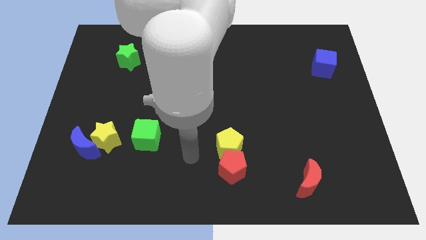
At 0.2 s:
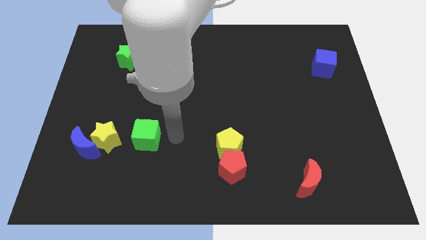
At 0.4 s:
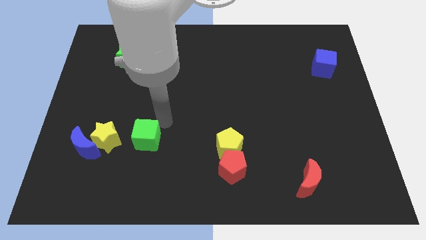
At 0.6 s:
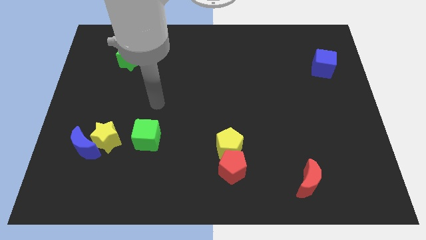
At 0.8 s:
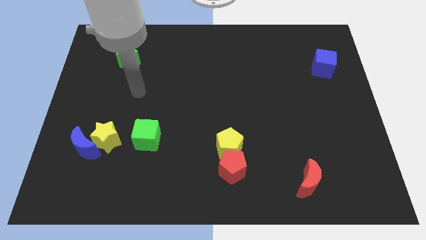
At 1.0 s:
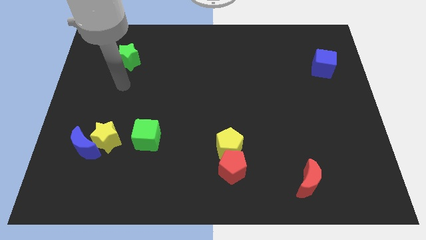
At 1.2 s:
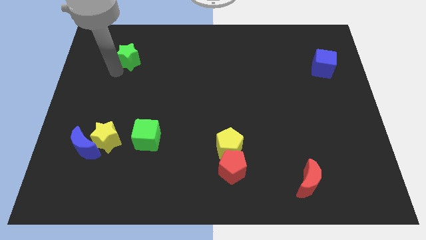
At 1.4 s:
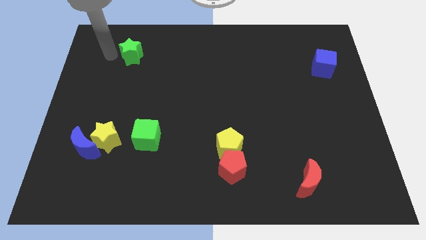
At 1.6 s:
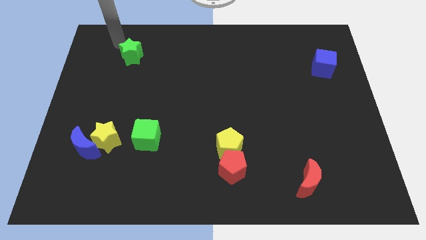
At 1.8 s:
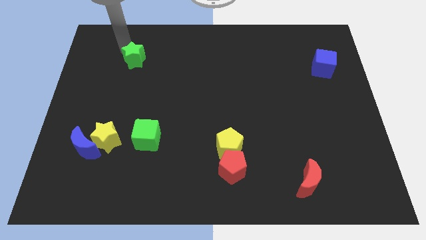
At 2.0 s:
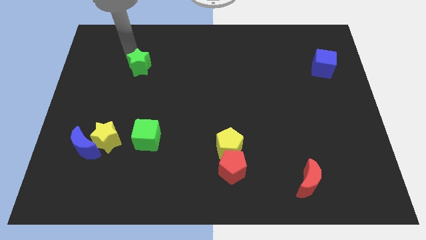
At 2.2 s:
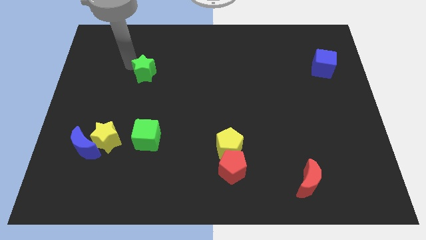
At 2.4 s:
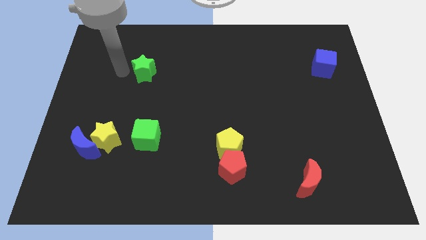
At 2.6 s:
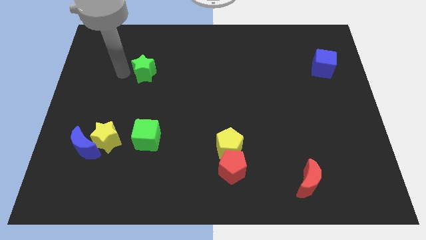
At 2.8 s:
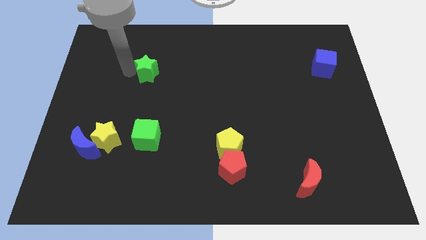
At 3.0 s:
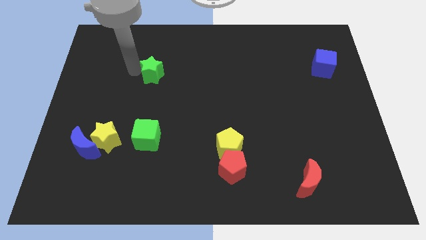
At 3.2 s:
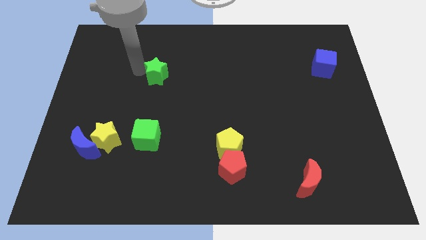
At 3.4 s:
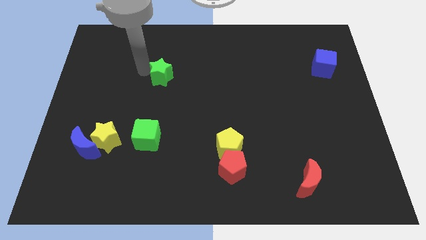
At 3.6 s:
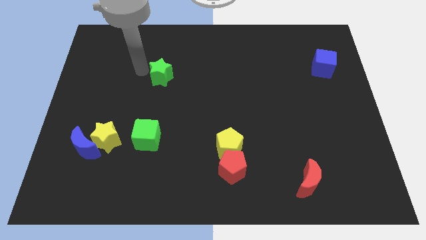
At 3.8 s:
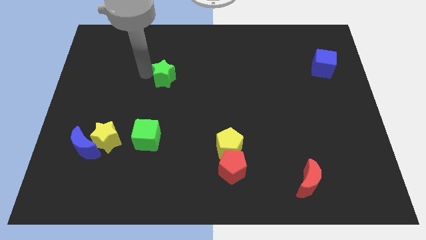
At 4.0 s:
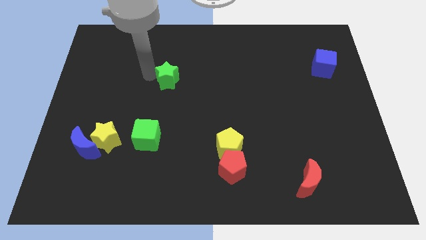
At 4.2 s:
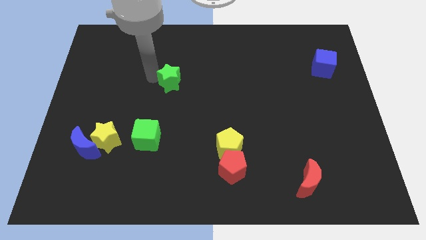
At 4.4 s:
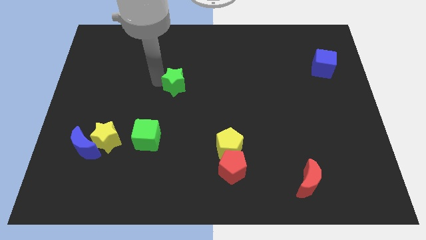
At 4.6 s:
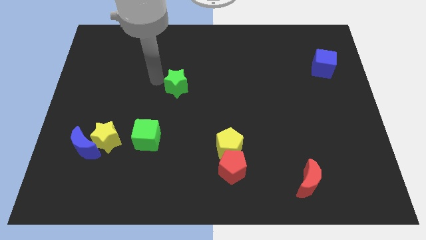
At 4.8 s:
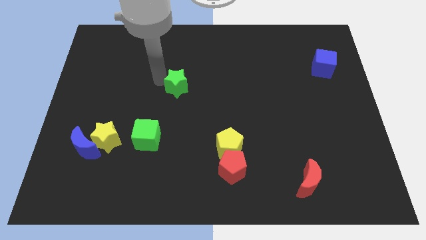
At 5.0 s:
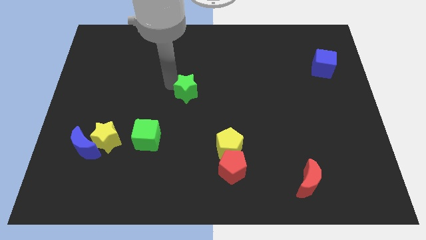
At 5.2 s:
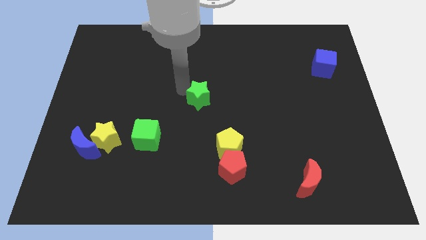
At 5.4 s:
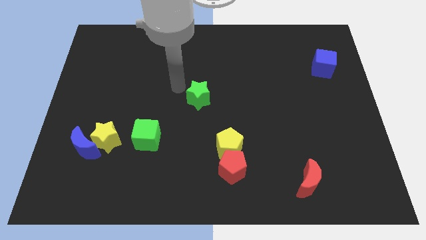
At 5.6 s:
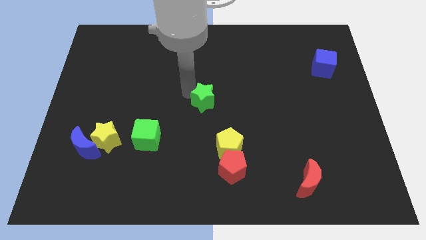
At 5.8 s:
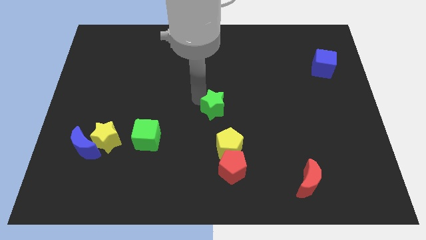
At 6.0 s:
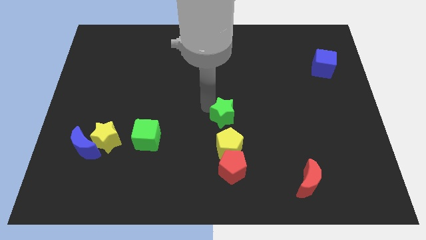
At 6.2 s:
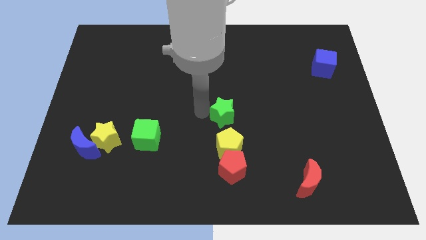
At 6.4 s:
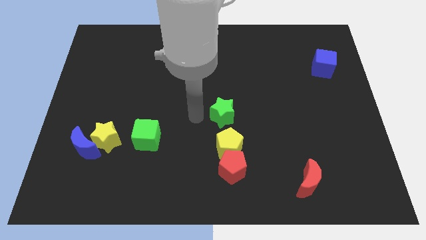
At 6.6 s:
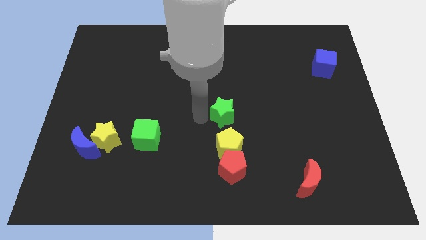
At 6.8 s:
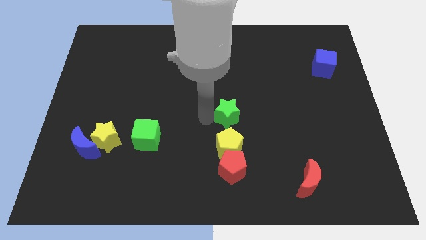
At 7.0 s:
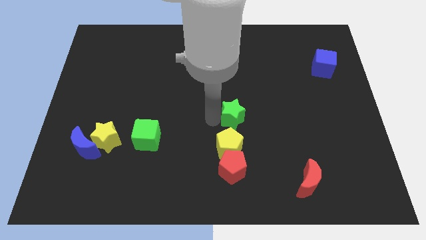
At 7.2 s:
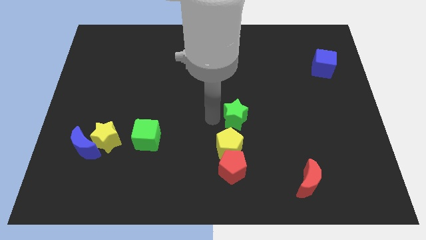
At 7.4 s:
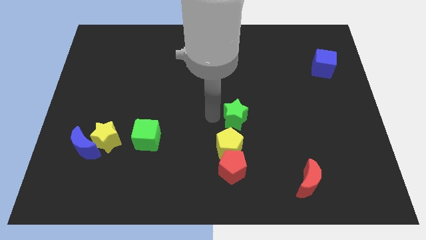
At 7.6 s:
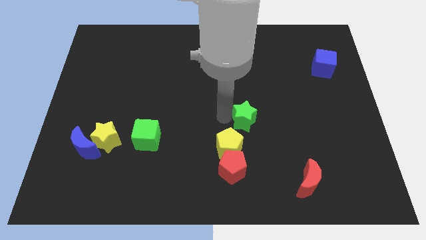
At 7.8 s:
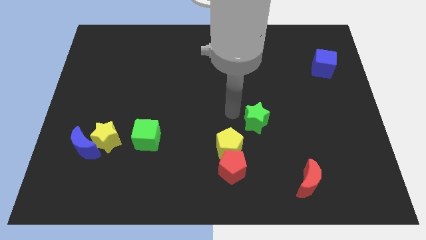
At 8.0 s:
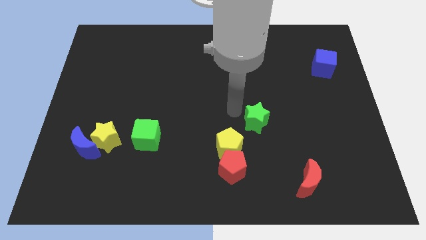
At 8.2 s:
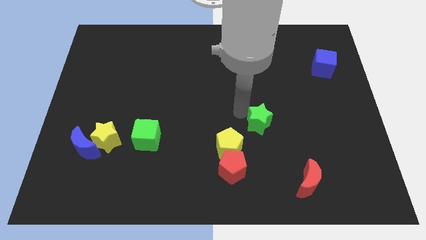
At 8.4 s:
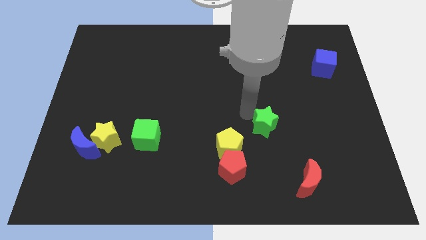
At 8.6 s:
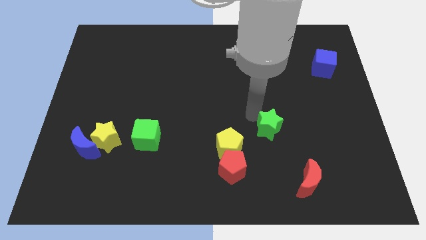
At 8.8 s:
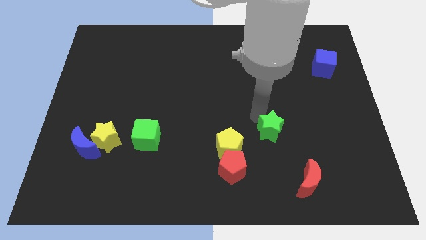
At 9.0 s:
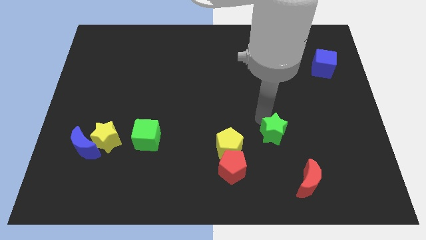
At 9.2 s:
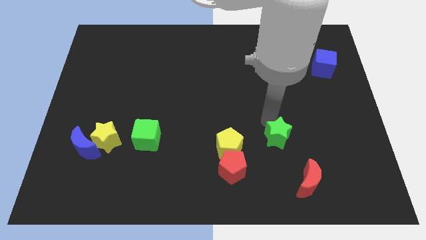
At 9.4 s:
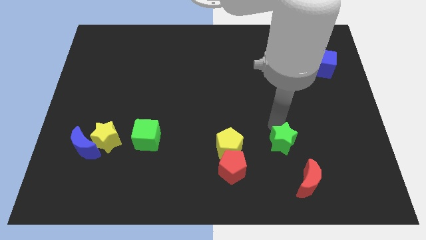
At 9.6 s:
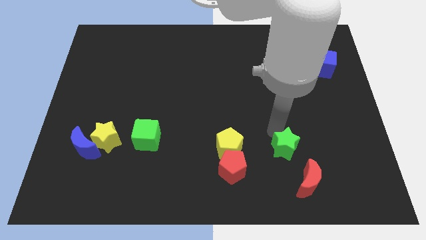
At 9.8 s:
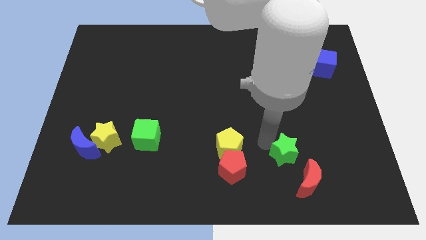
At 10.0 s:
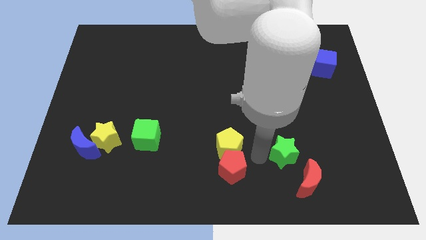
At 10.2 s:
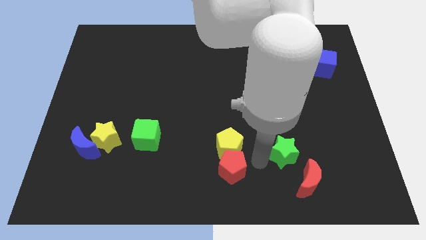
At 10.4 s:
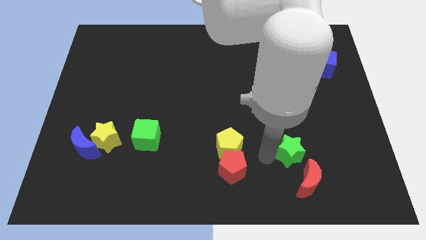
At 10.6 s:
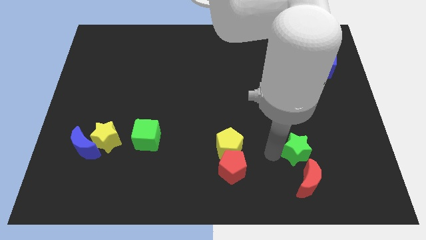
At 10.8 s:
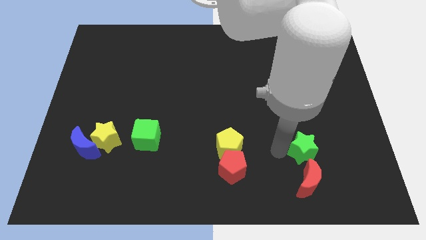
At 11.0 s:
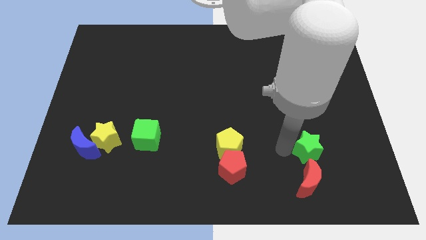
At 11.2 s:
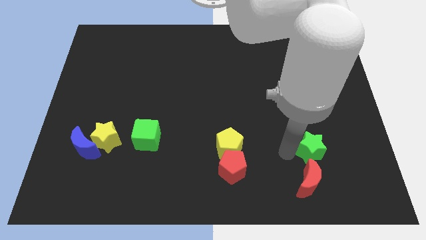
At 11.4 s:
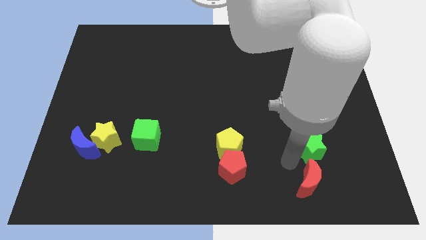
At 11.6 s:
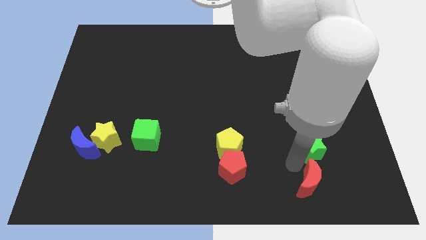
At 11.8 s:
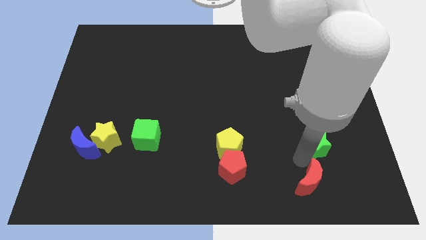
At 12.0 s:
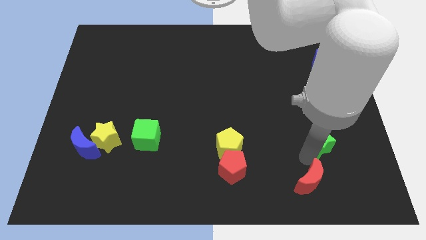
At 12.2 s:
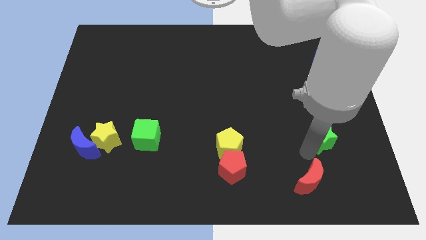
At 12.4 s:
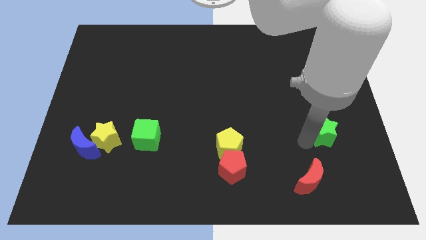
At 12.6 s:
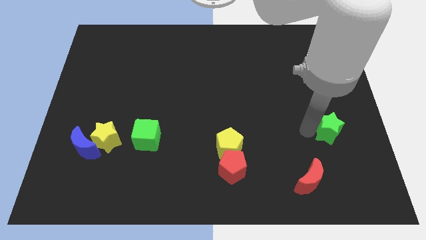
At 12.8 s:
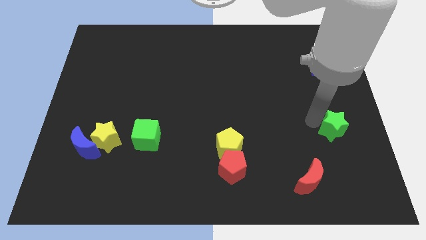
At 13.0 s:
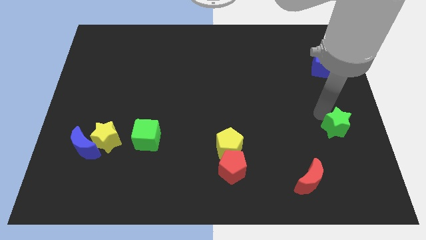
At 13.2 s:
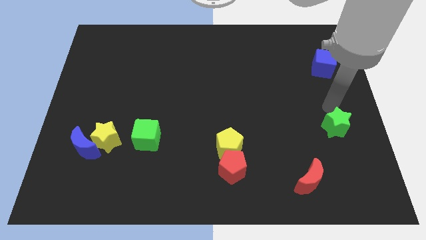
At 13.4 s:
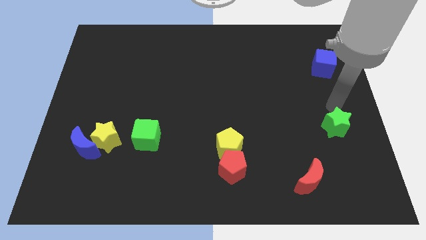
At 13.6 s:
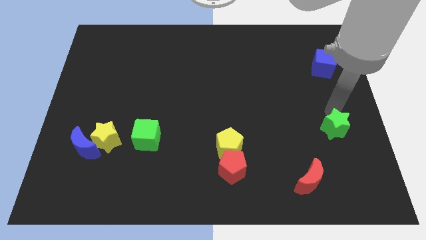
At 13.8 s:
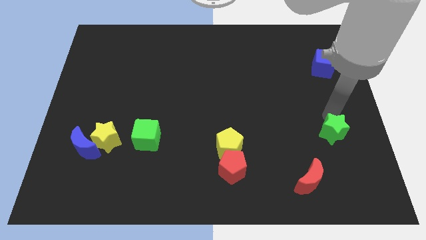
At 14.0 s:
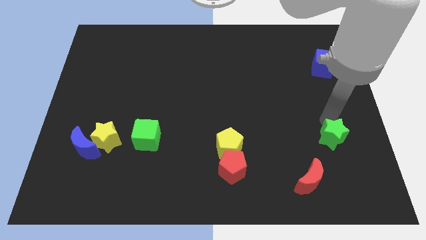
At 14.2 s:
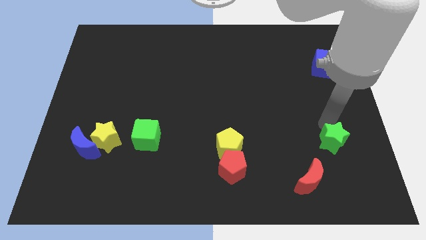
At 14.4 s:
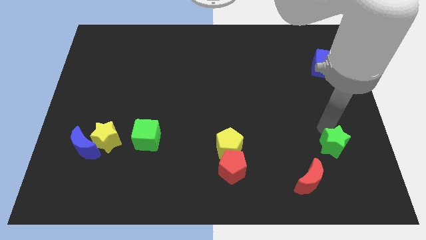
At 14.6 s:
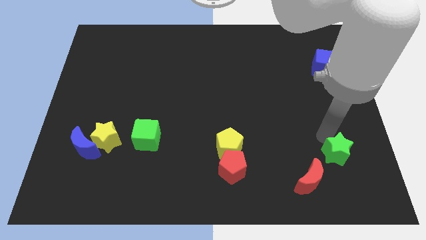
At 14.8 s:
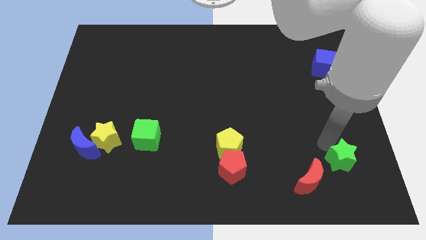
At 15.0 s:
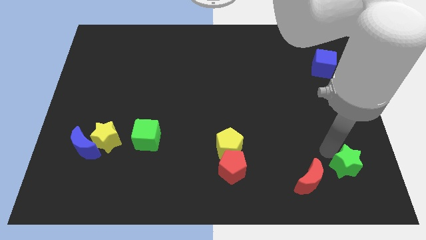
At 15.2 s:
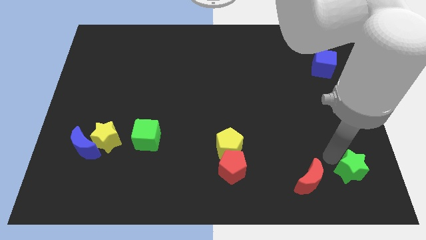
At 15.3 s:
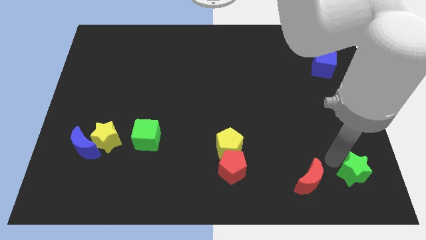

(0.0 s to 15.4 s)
move the green star to the bottom right corner
